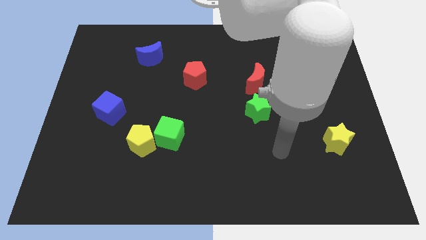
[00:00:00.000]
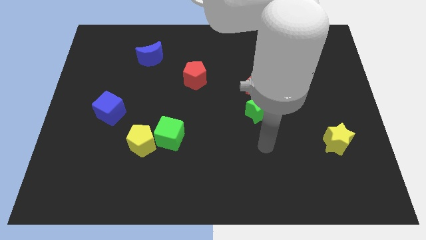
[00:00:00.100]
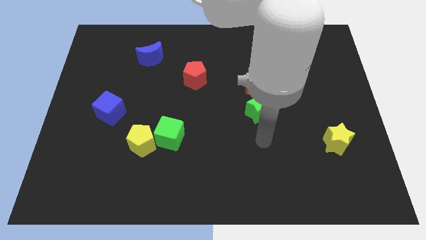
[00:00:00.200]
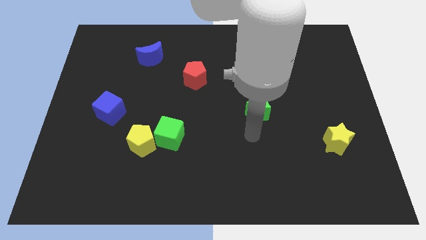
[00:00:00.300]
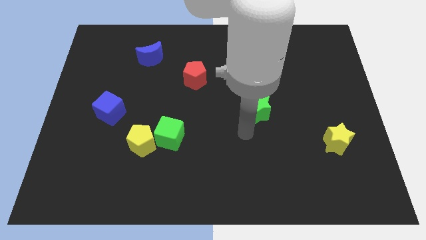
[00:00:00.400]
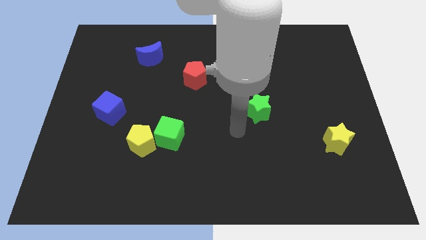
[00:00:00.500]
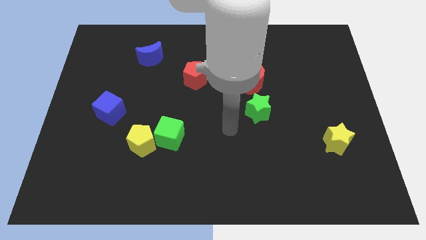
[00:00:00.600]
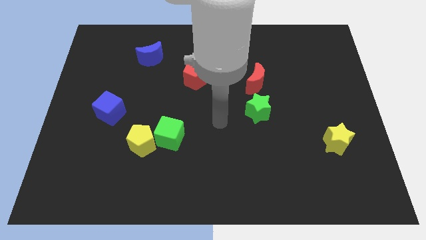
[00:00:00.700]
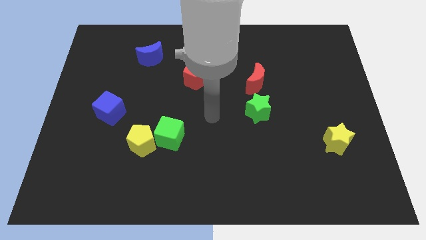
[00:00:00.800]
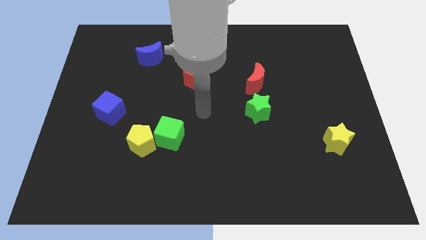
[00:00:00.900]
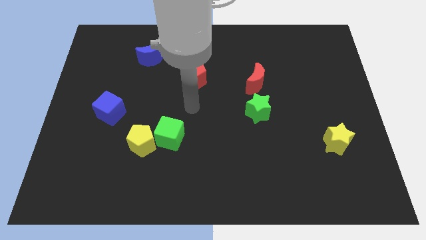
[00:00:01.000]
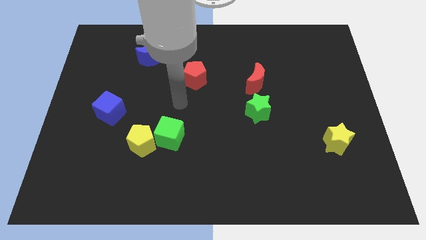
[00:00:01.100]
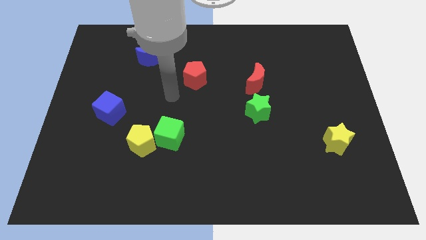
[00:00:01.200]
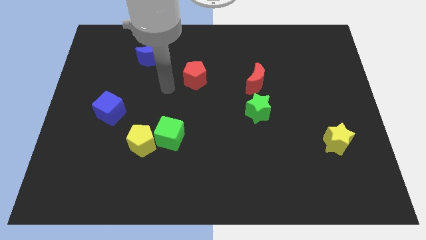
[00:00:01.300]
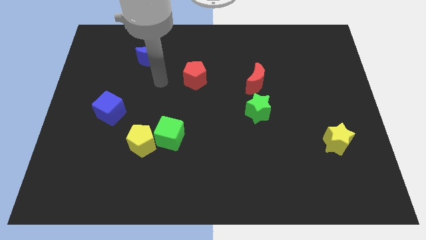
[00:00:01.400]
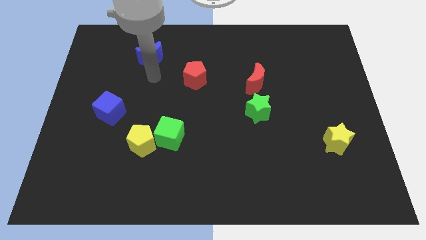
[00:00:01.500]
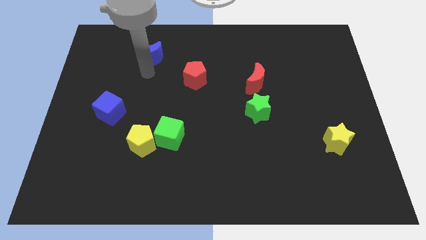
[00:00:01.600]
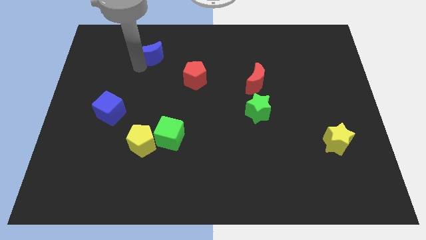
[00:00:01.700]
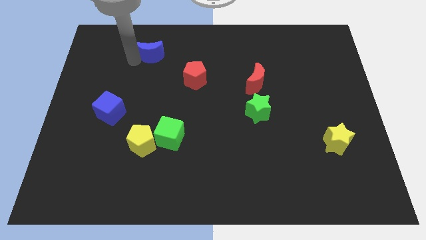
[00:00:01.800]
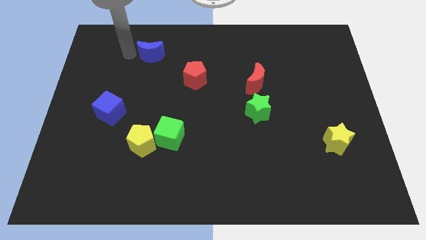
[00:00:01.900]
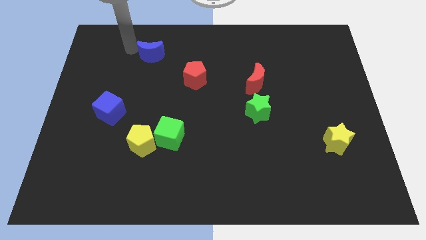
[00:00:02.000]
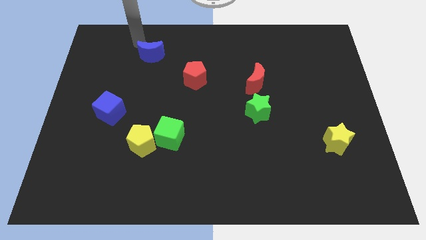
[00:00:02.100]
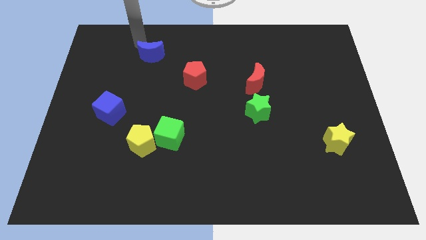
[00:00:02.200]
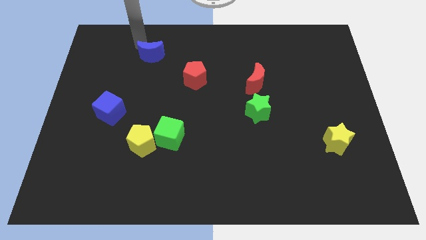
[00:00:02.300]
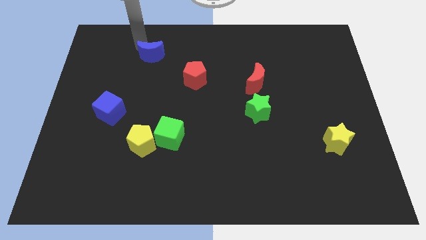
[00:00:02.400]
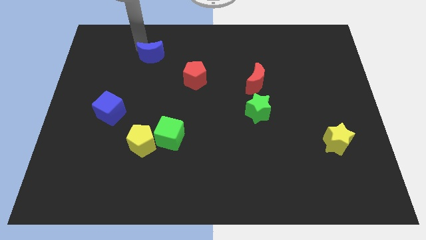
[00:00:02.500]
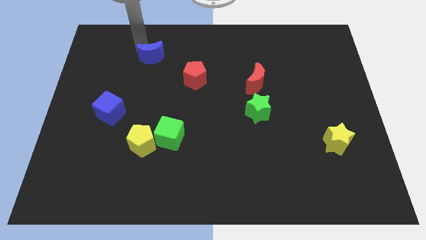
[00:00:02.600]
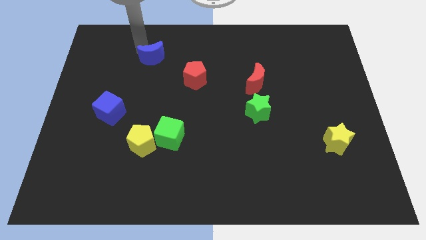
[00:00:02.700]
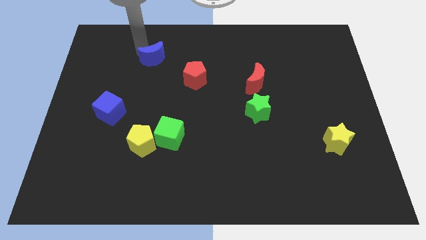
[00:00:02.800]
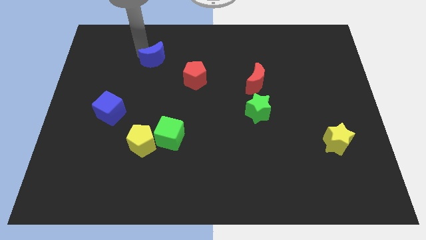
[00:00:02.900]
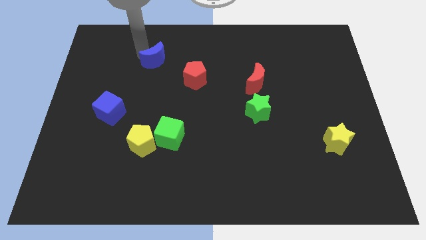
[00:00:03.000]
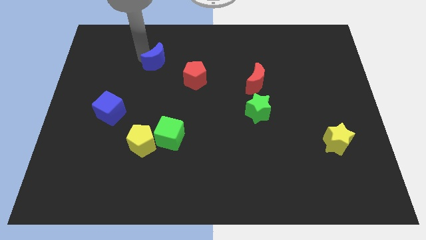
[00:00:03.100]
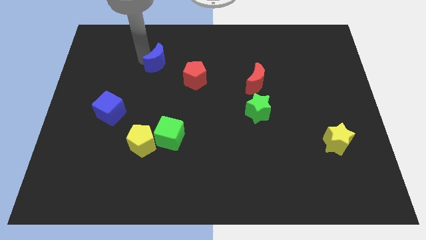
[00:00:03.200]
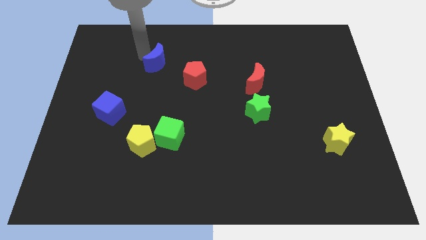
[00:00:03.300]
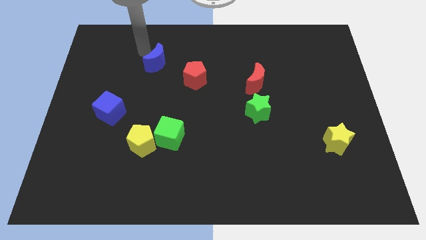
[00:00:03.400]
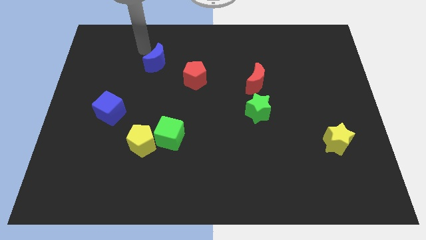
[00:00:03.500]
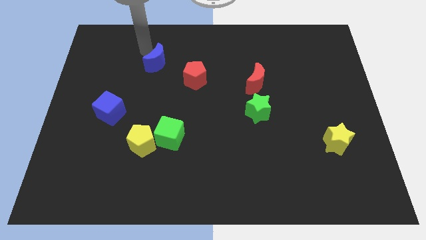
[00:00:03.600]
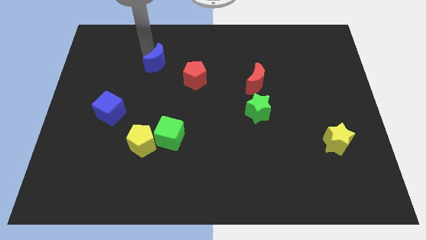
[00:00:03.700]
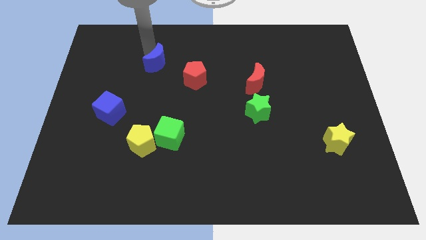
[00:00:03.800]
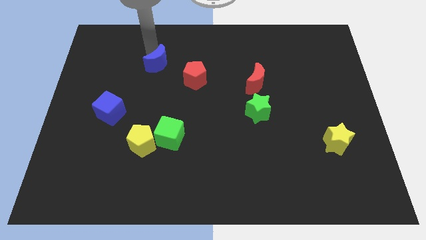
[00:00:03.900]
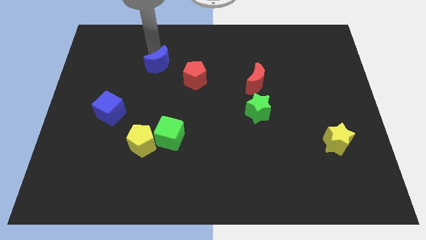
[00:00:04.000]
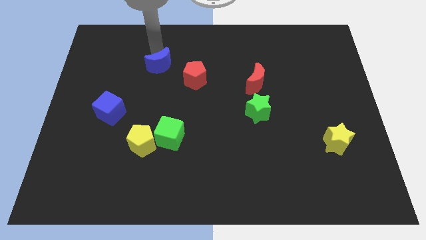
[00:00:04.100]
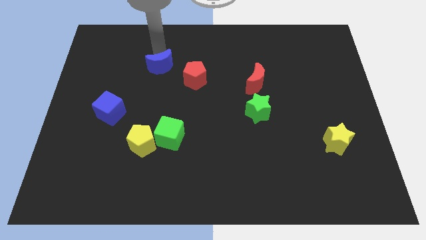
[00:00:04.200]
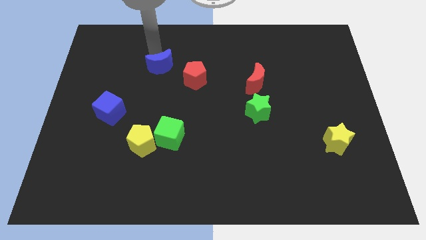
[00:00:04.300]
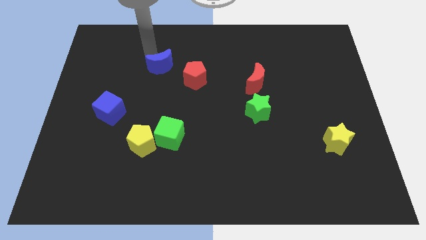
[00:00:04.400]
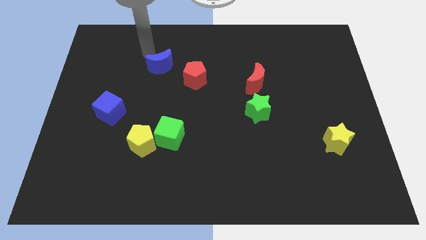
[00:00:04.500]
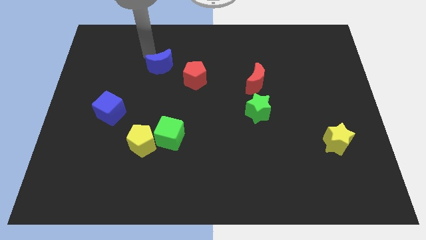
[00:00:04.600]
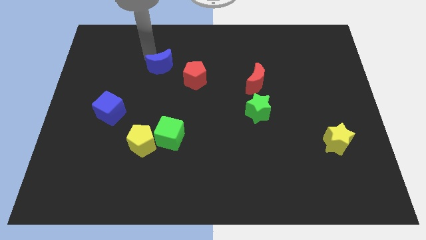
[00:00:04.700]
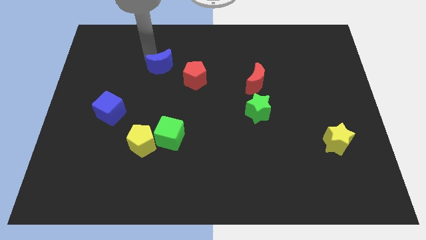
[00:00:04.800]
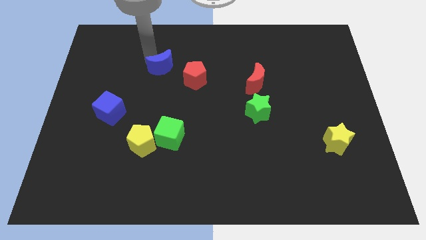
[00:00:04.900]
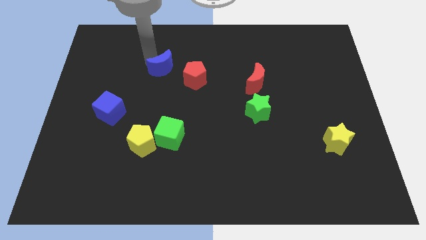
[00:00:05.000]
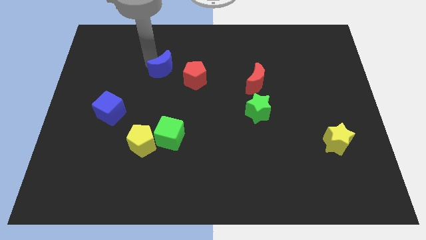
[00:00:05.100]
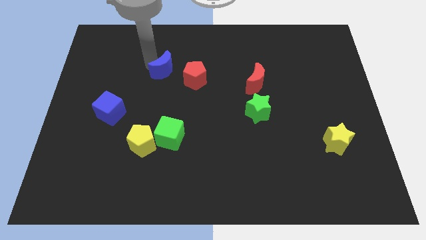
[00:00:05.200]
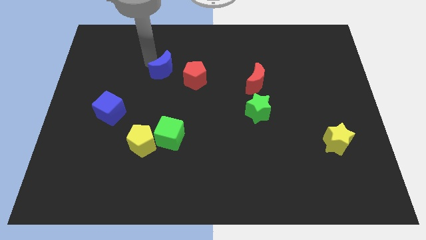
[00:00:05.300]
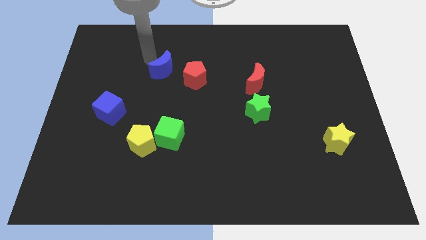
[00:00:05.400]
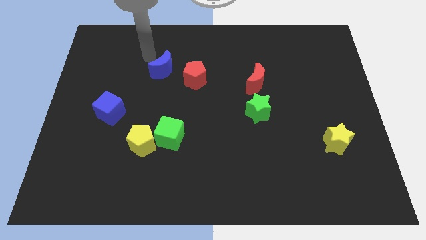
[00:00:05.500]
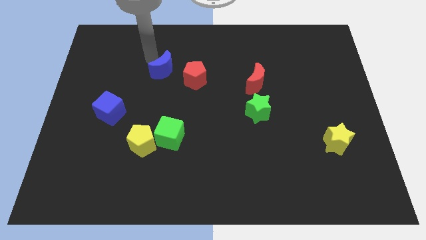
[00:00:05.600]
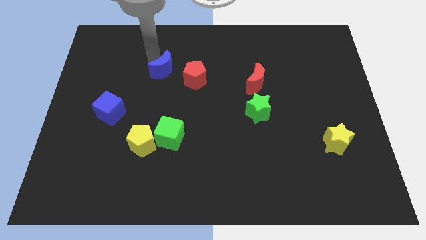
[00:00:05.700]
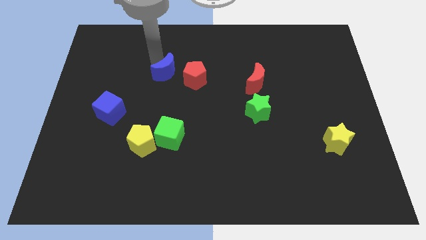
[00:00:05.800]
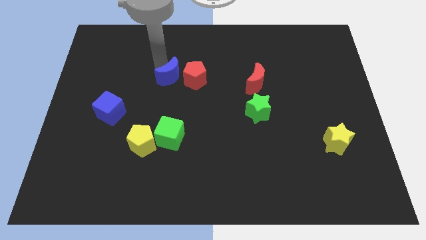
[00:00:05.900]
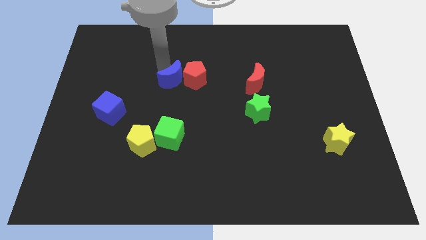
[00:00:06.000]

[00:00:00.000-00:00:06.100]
move the blue moon to the center

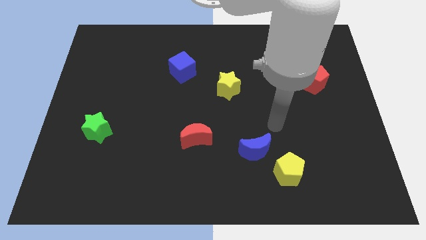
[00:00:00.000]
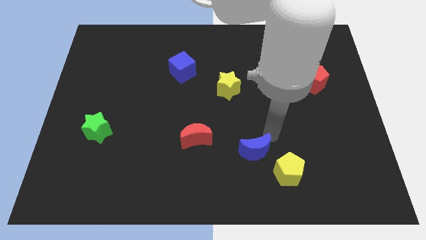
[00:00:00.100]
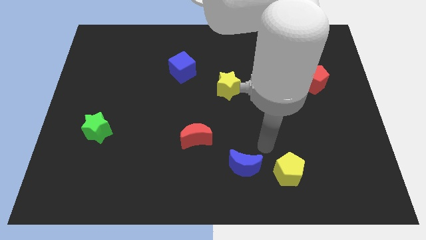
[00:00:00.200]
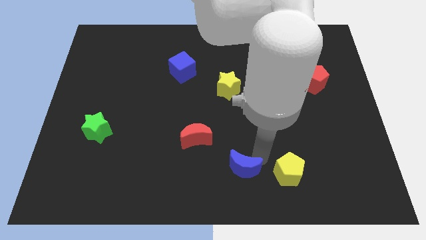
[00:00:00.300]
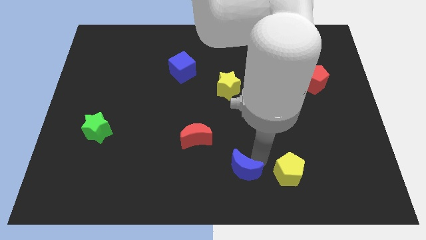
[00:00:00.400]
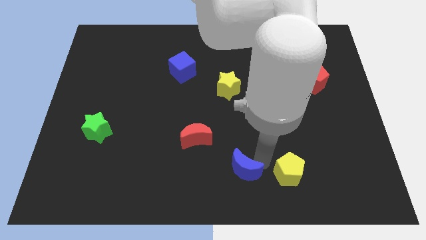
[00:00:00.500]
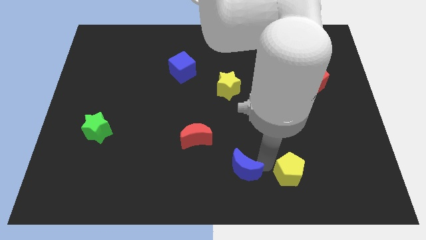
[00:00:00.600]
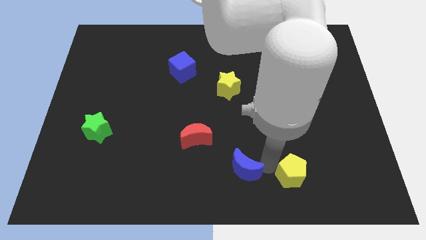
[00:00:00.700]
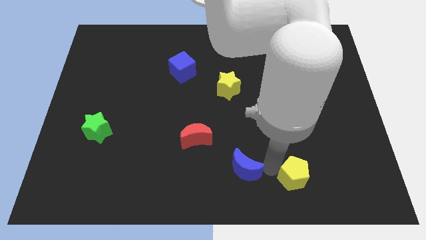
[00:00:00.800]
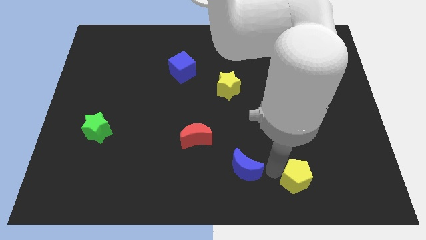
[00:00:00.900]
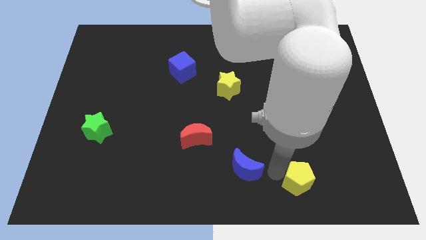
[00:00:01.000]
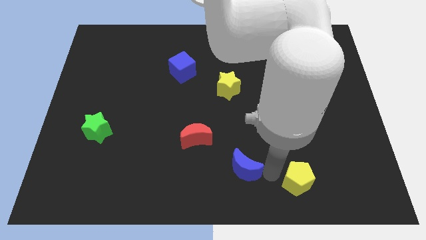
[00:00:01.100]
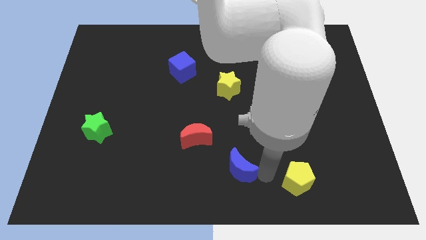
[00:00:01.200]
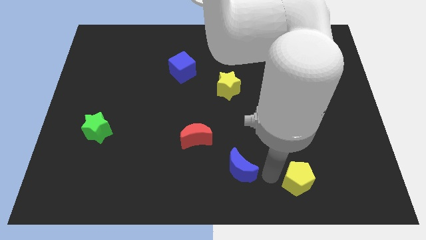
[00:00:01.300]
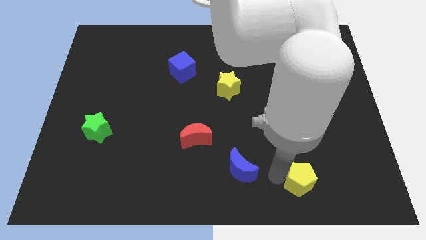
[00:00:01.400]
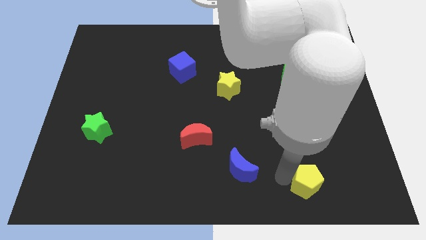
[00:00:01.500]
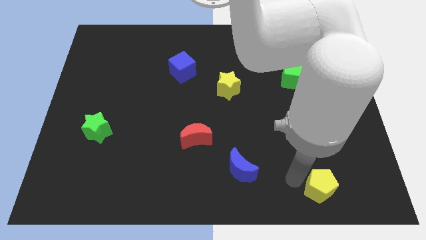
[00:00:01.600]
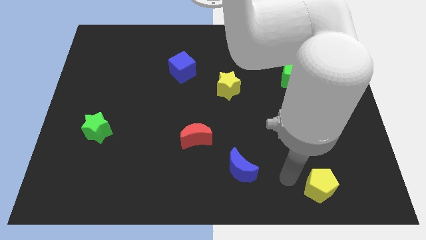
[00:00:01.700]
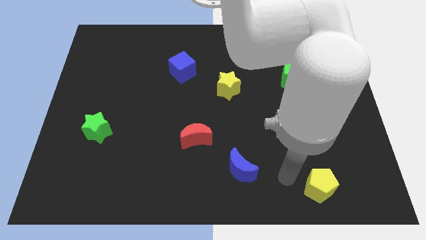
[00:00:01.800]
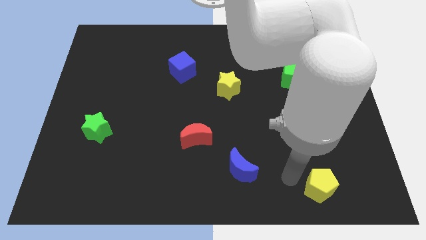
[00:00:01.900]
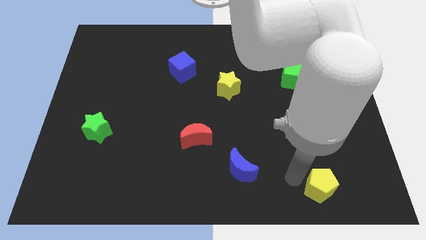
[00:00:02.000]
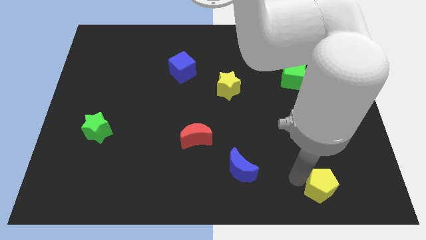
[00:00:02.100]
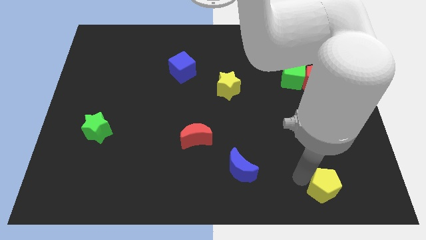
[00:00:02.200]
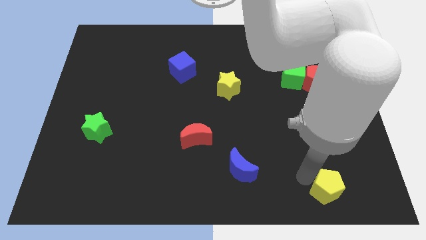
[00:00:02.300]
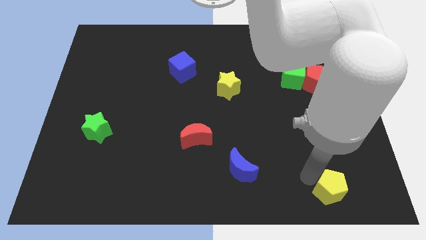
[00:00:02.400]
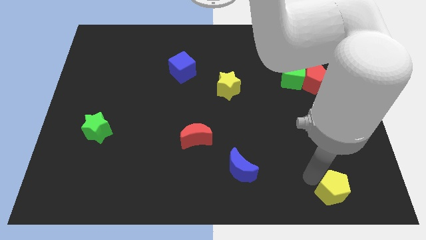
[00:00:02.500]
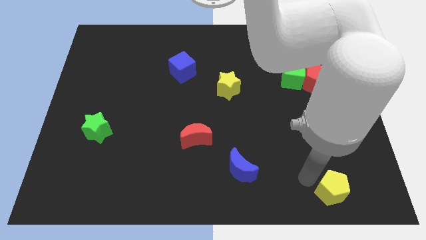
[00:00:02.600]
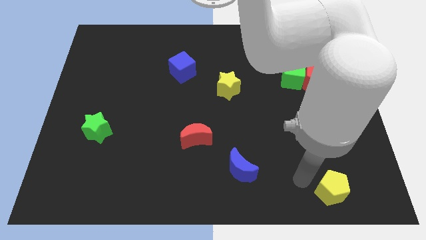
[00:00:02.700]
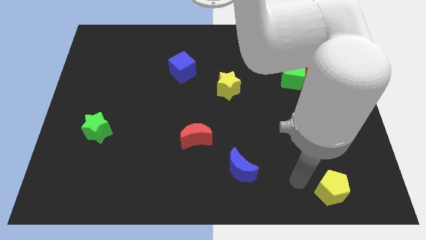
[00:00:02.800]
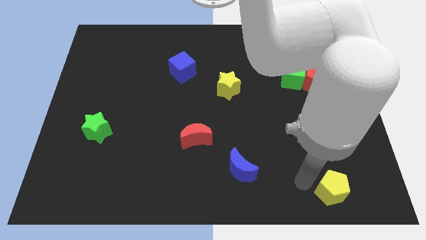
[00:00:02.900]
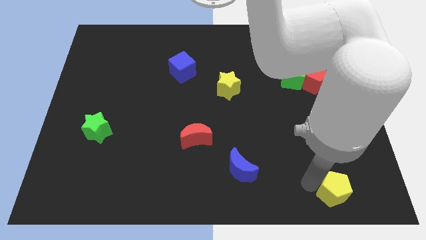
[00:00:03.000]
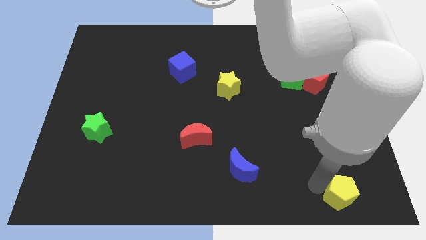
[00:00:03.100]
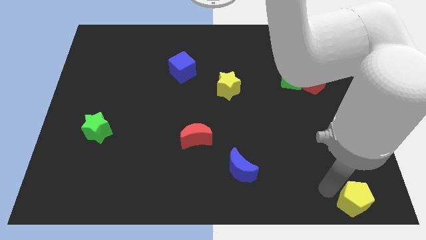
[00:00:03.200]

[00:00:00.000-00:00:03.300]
push the yellow pentagon to the lower right corner
